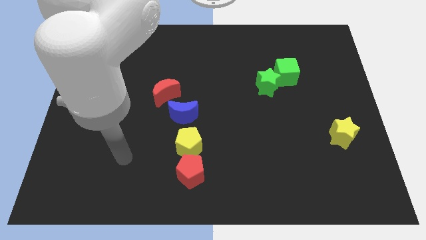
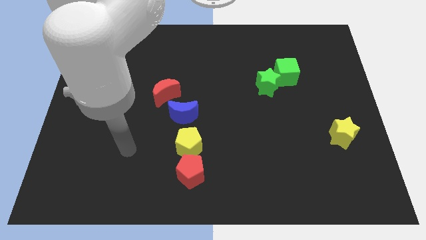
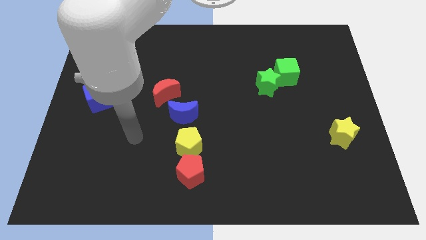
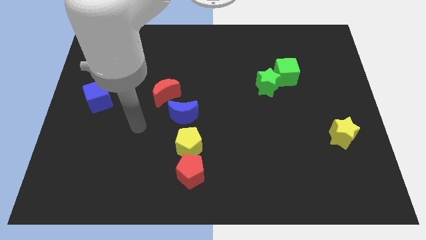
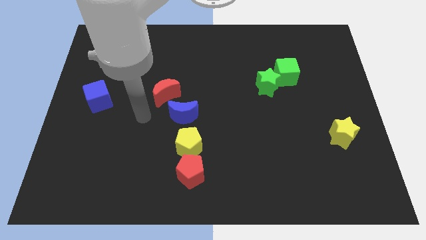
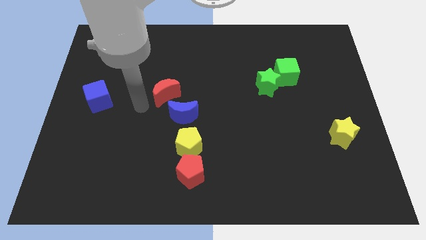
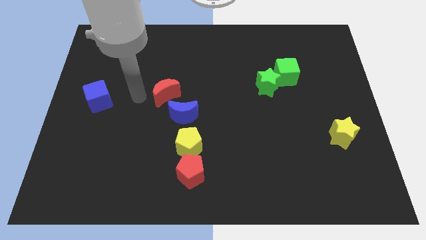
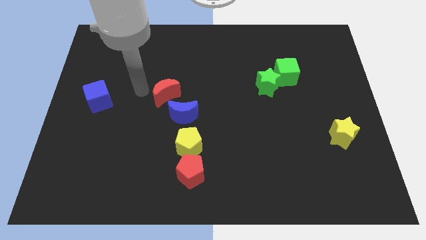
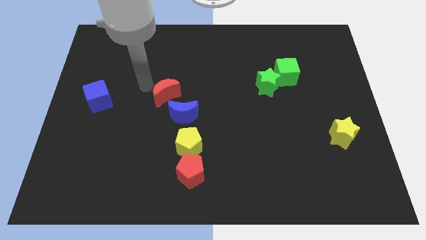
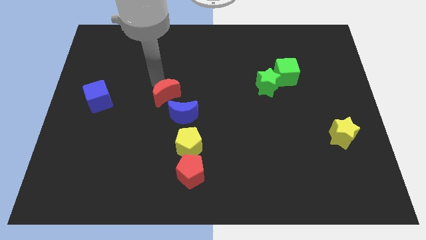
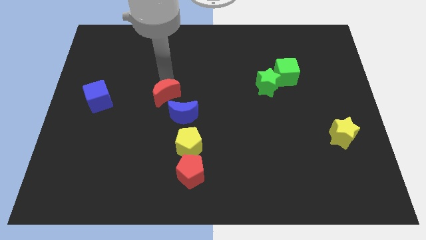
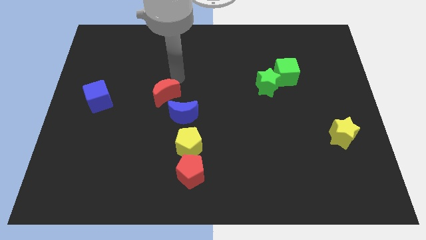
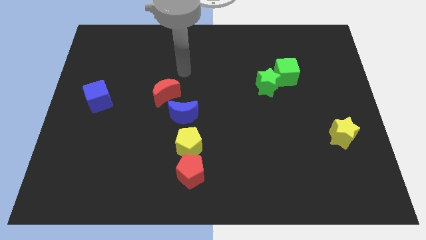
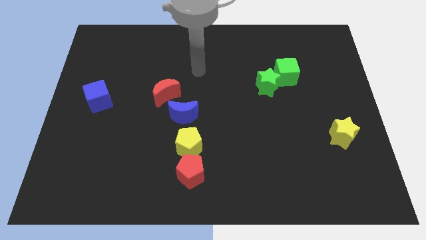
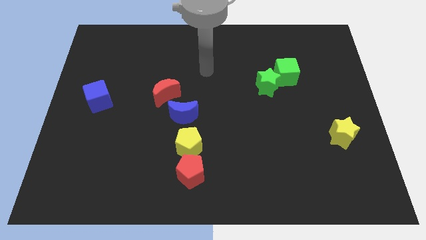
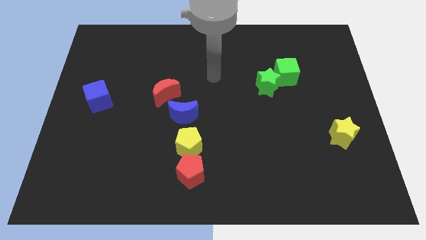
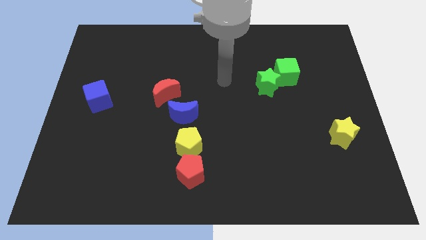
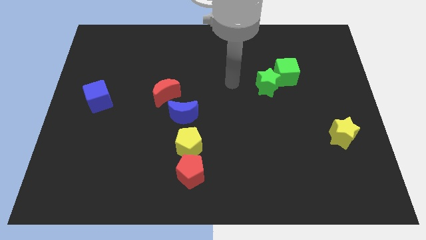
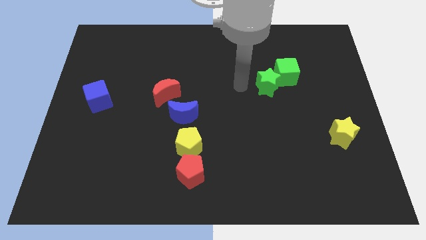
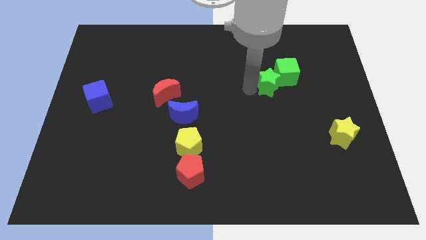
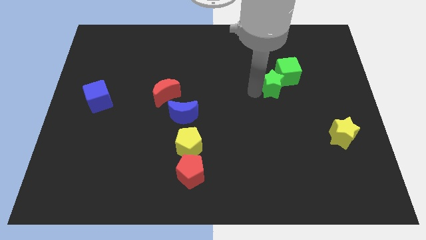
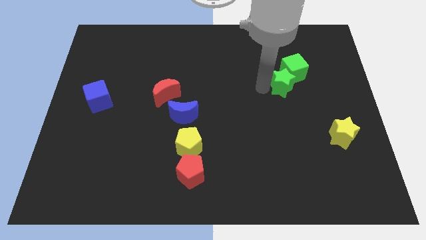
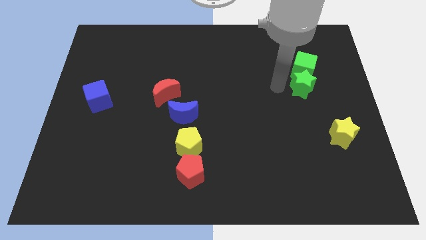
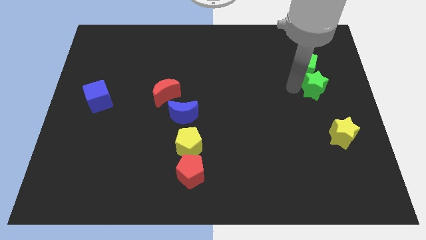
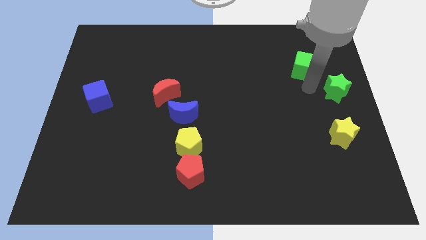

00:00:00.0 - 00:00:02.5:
move the green cube away from the green star

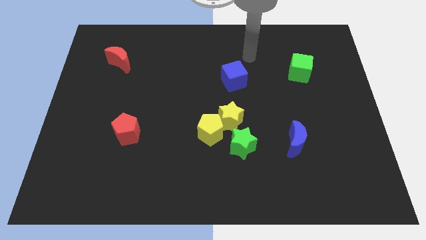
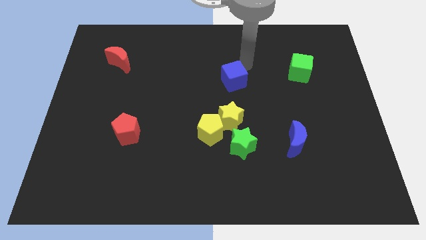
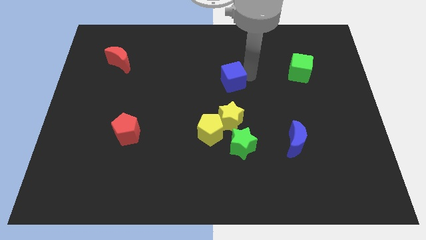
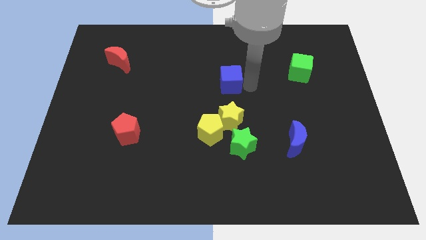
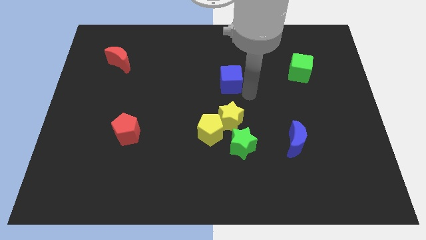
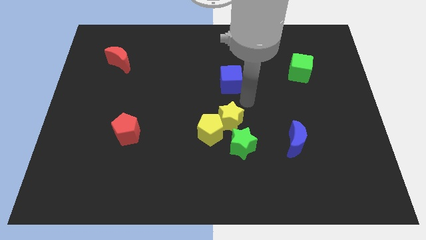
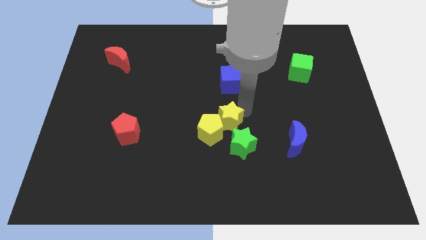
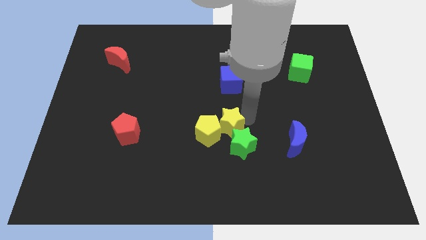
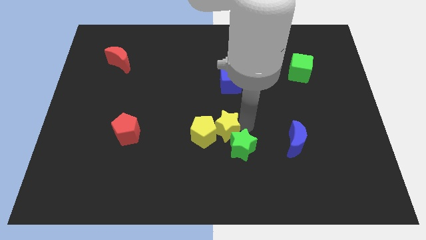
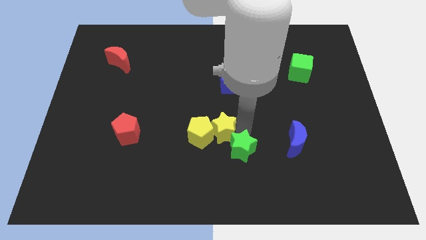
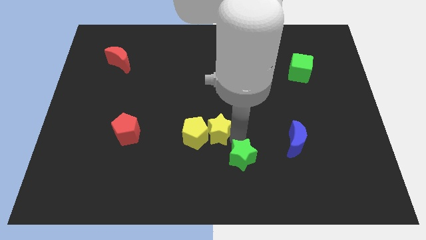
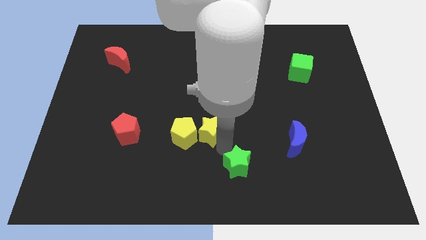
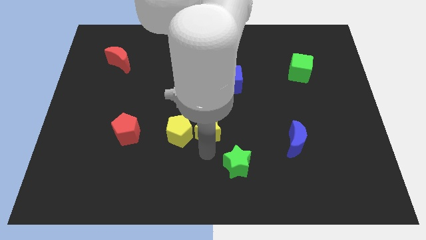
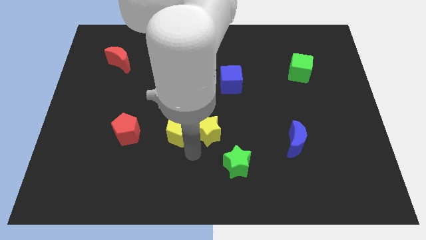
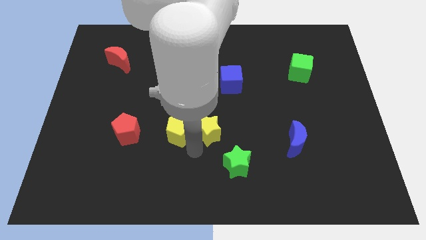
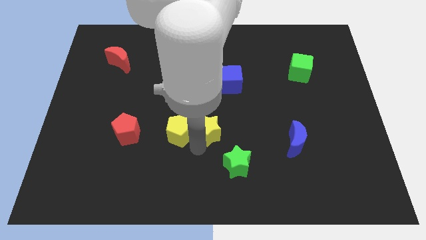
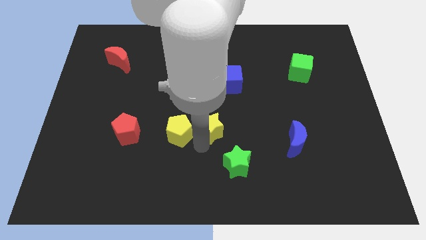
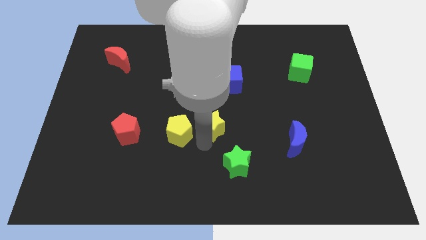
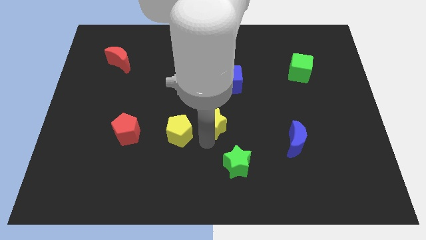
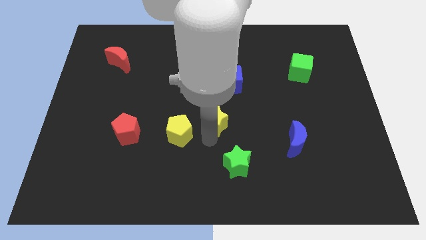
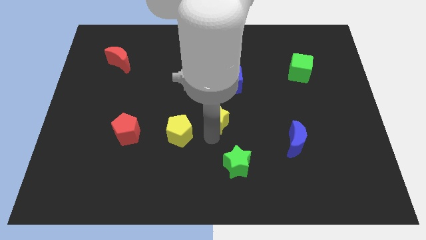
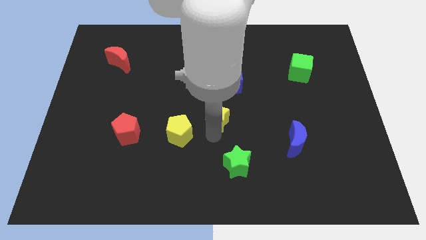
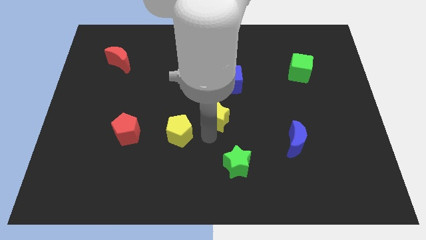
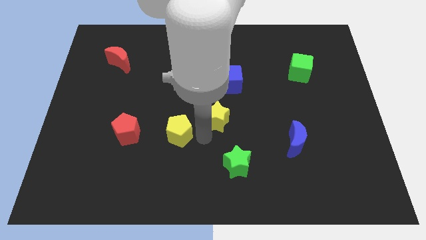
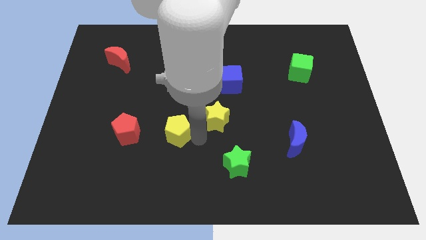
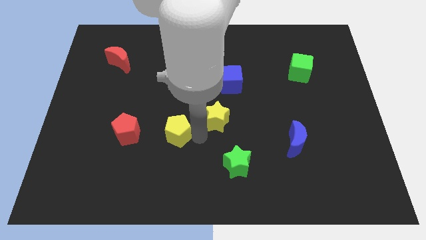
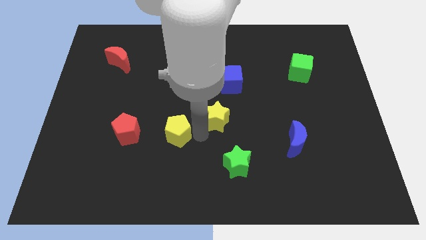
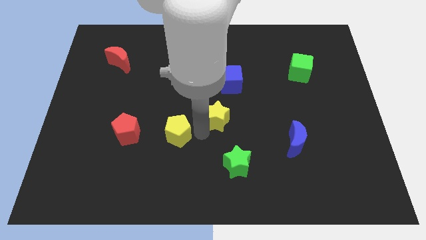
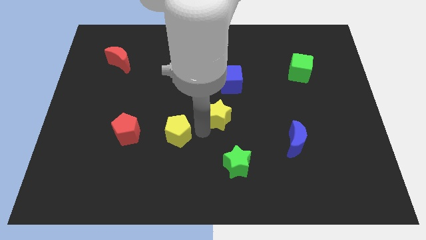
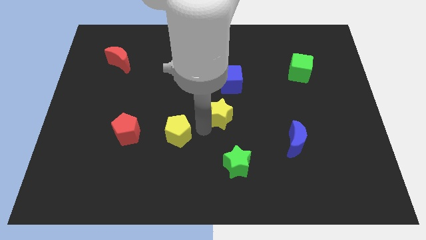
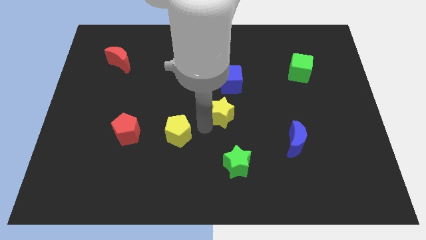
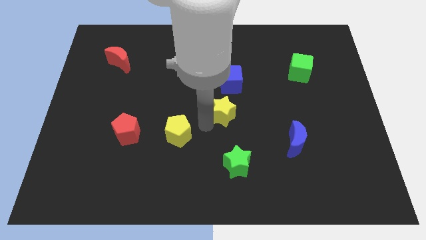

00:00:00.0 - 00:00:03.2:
pull the yellow star apart from the yellow pentagon and green star

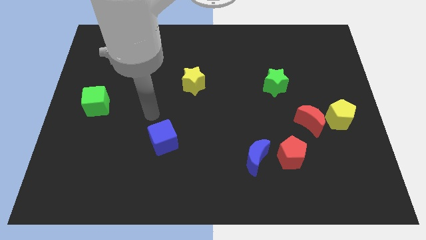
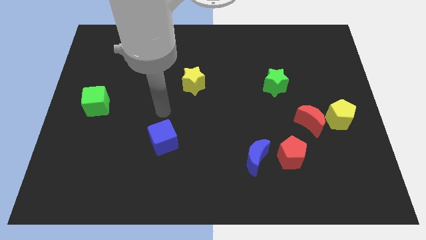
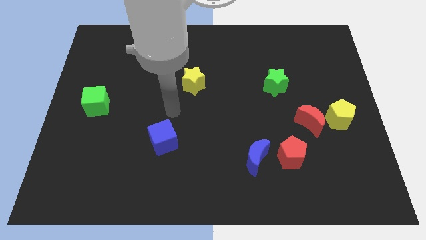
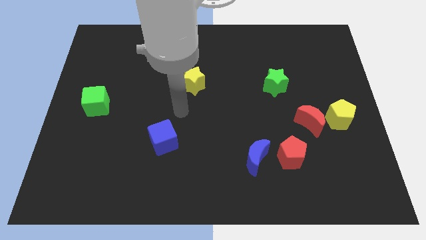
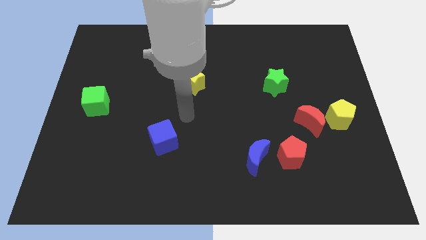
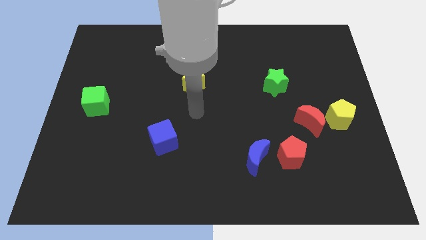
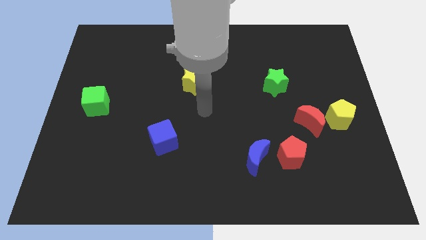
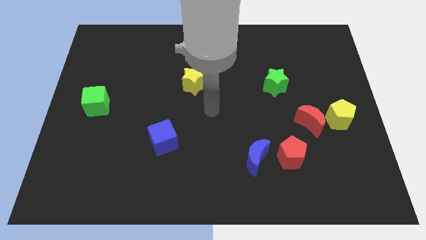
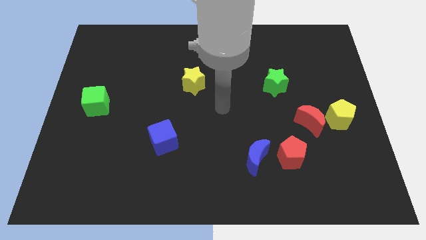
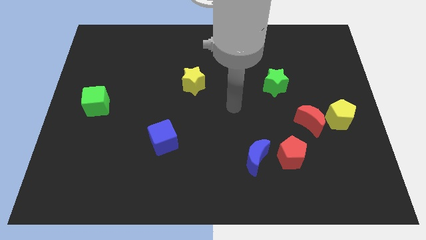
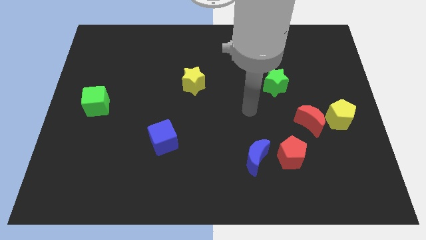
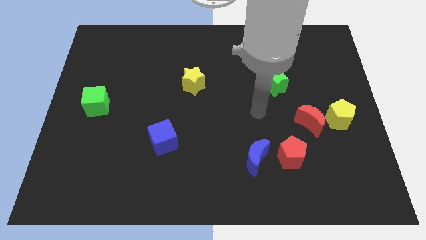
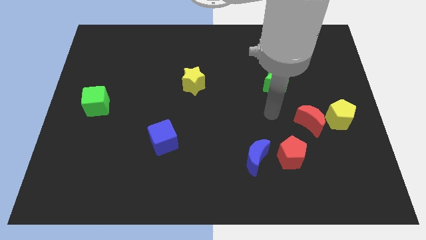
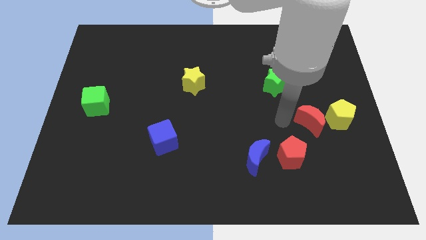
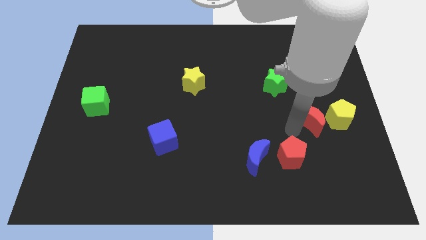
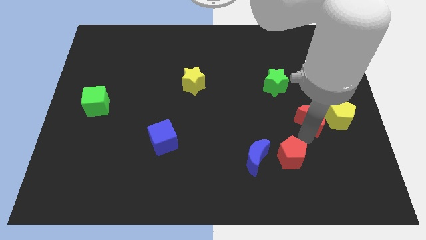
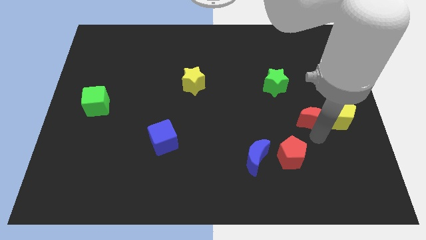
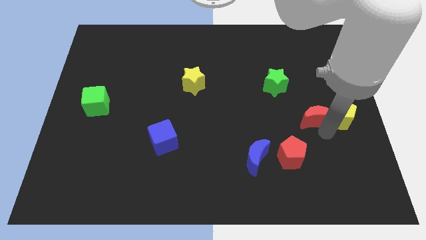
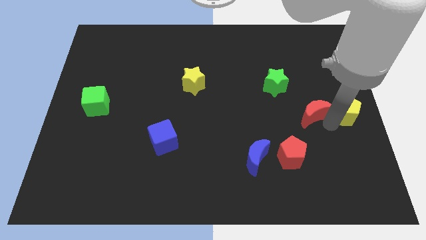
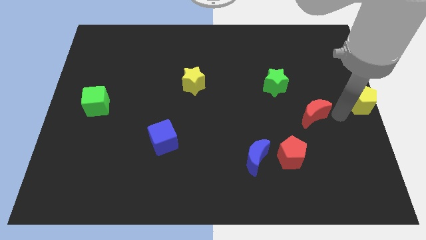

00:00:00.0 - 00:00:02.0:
pull the red moon apart from the yellow pentagon

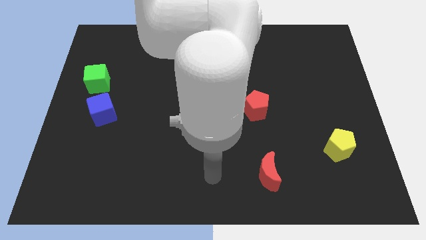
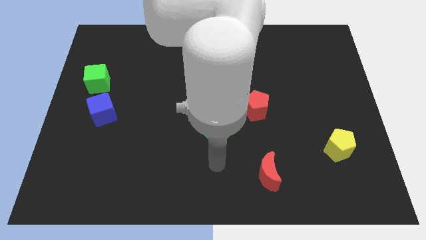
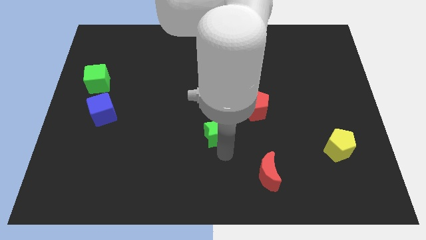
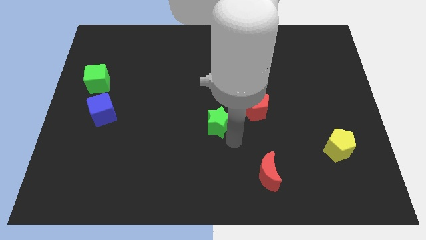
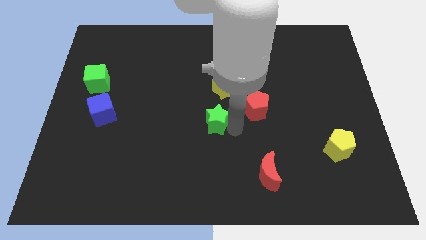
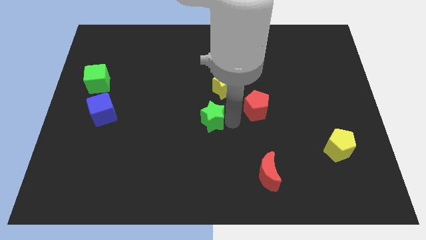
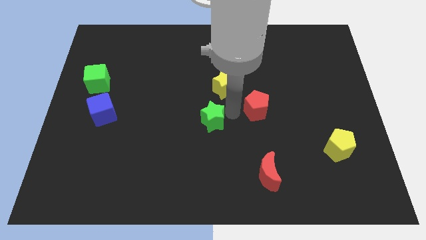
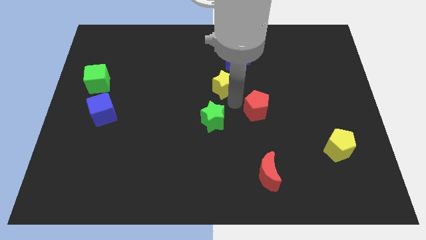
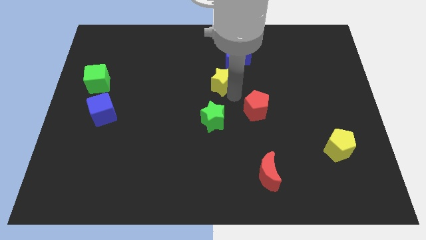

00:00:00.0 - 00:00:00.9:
pull the red pentagon apart from the yellow star

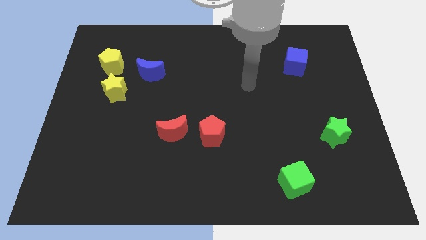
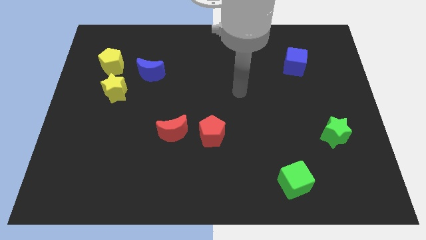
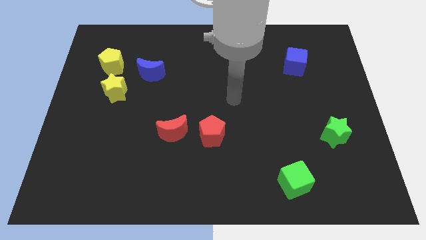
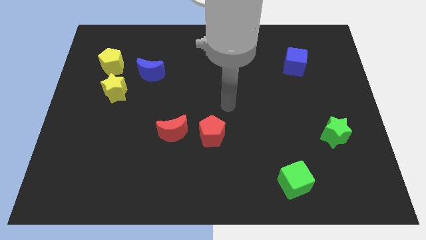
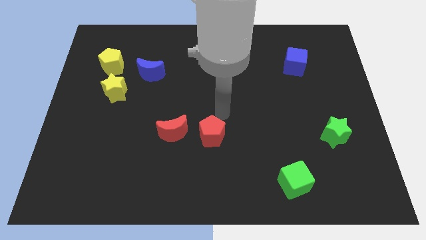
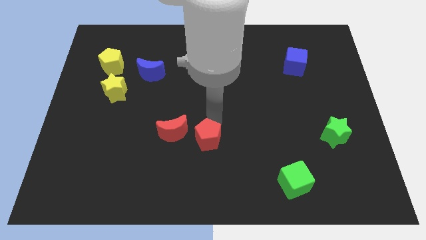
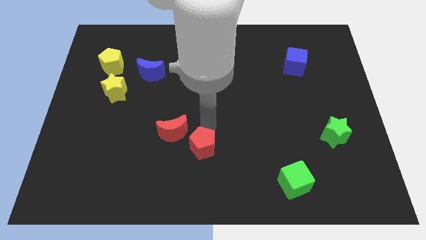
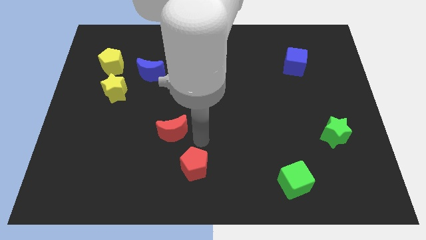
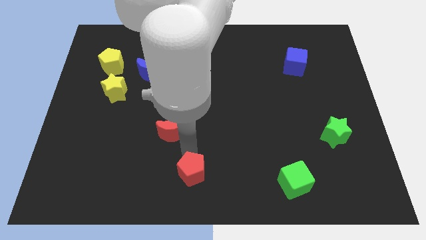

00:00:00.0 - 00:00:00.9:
pull the red moon apart from the red pentagon
